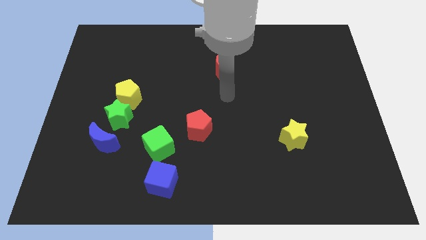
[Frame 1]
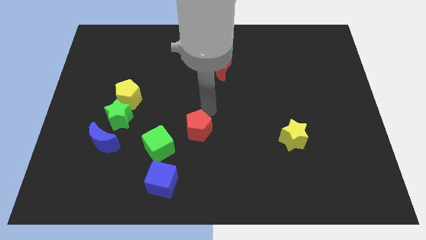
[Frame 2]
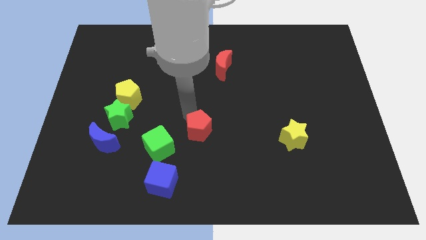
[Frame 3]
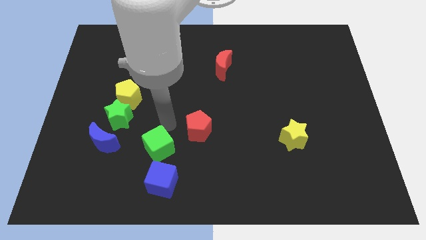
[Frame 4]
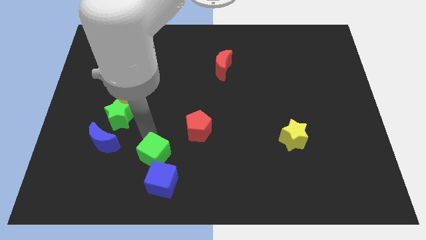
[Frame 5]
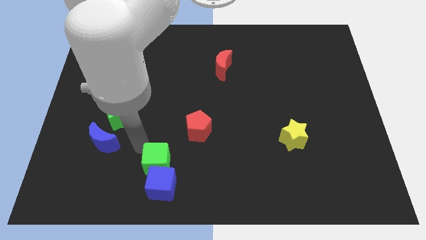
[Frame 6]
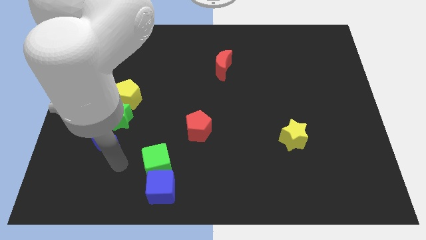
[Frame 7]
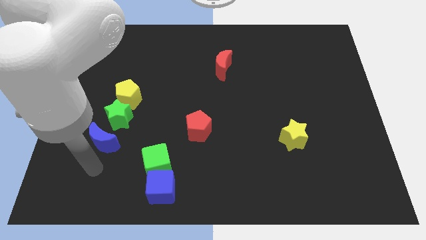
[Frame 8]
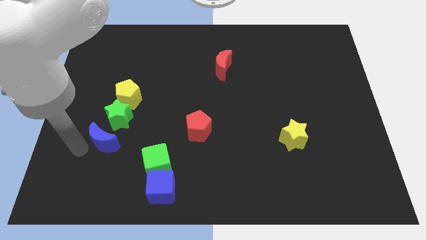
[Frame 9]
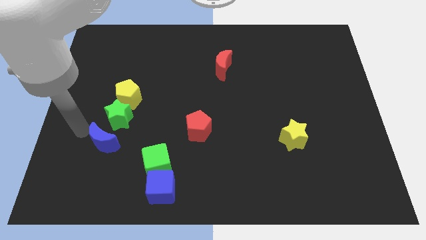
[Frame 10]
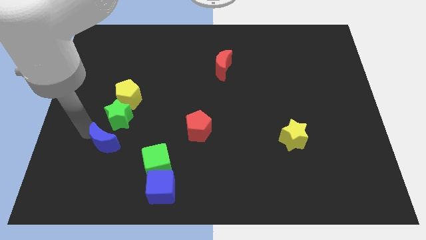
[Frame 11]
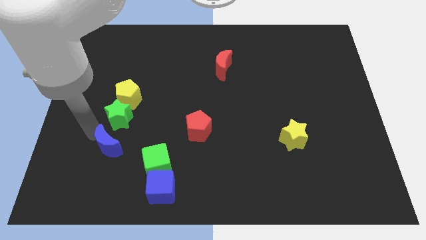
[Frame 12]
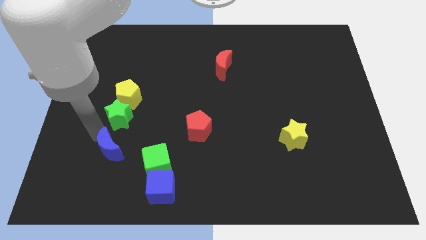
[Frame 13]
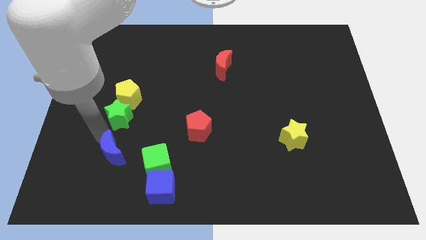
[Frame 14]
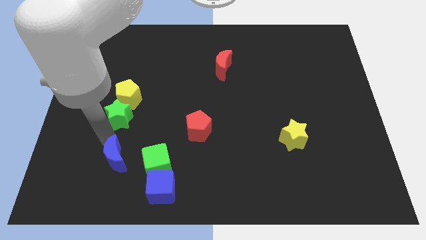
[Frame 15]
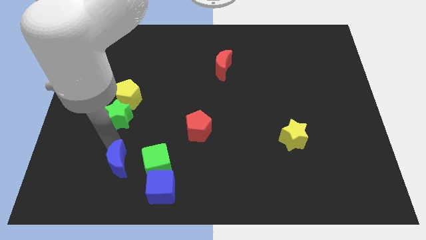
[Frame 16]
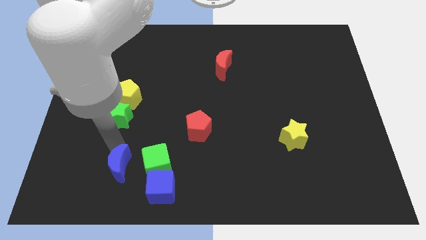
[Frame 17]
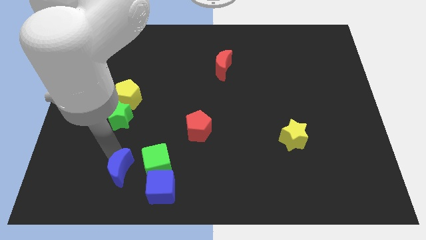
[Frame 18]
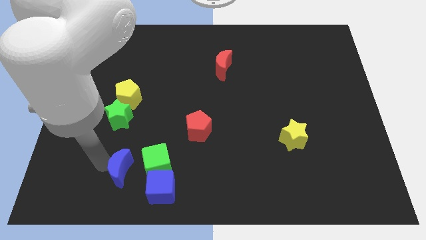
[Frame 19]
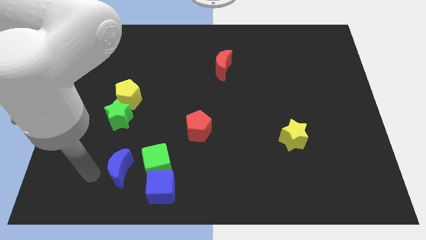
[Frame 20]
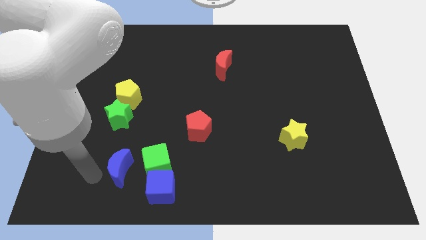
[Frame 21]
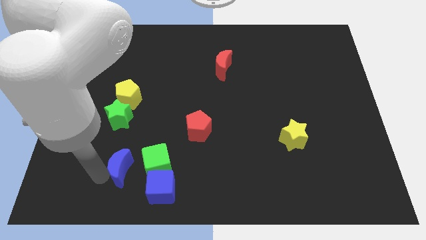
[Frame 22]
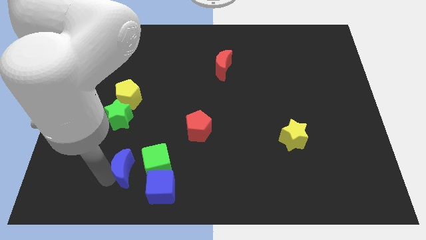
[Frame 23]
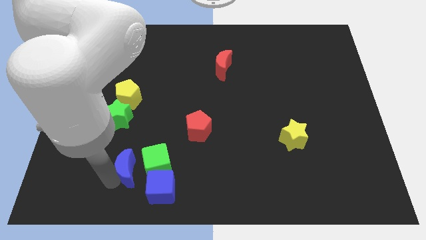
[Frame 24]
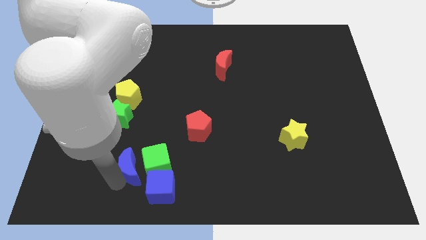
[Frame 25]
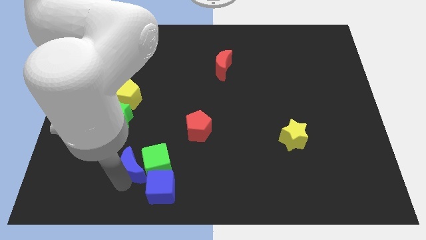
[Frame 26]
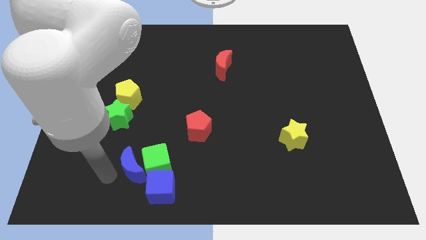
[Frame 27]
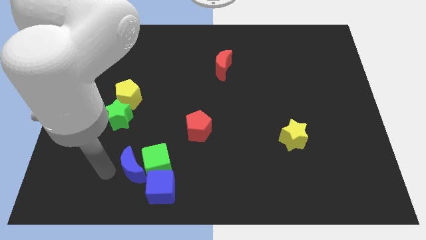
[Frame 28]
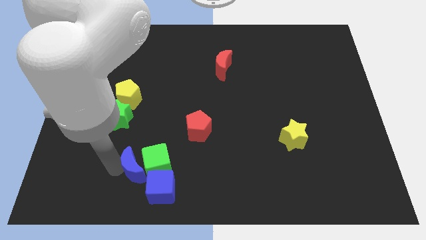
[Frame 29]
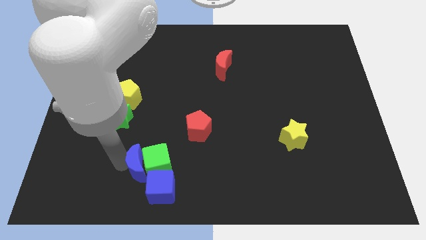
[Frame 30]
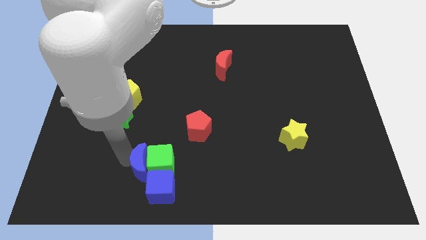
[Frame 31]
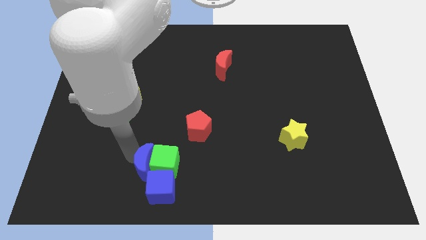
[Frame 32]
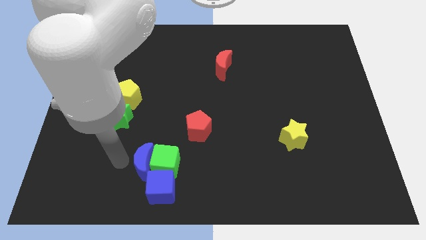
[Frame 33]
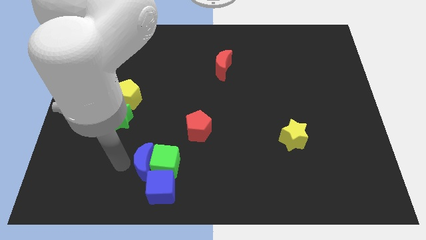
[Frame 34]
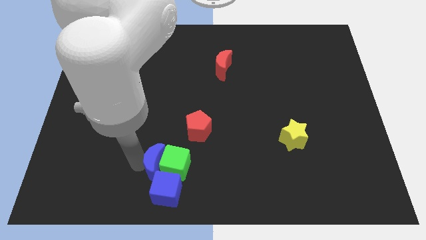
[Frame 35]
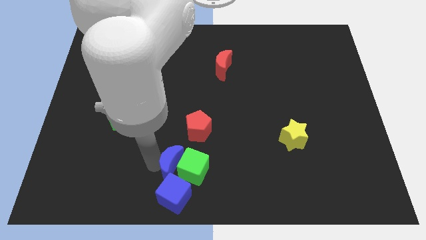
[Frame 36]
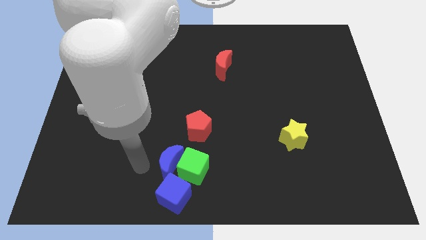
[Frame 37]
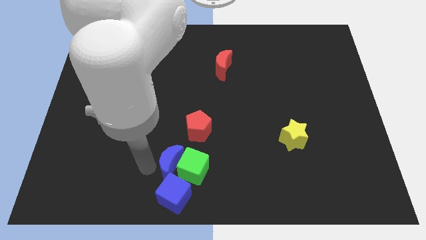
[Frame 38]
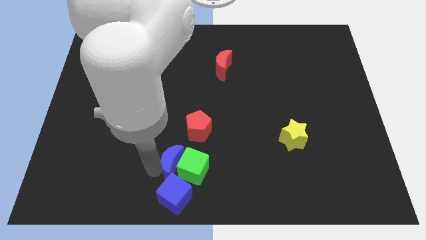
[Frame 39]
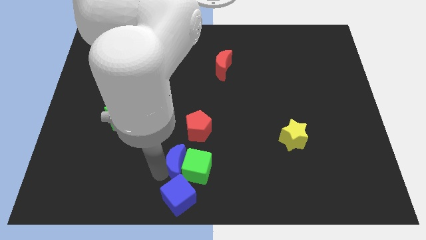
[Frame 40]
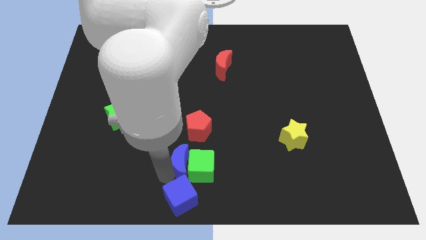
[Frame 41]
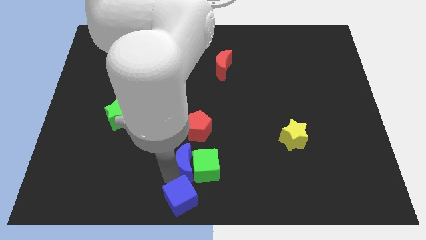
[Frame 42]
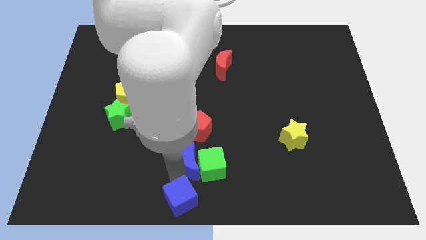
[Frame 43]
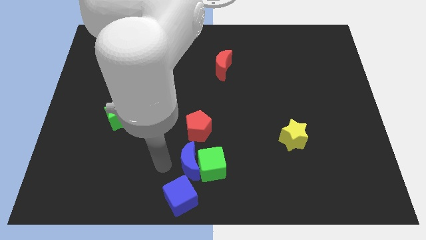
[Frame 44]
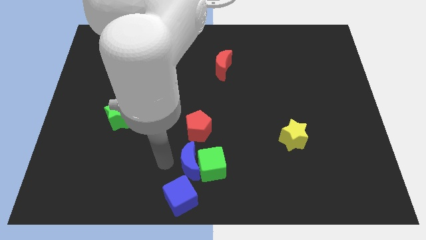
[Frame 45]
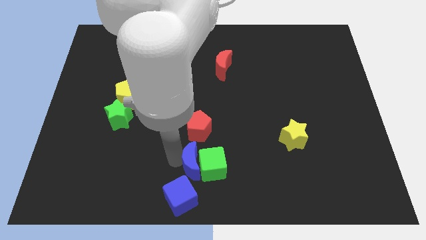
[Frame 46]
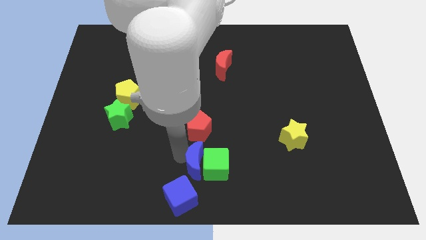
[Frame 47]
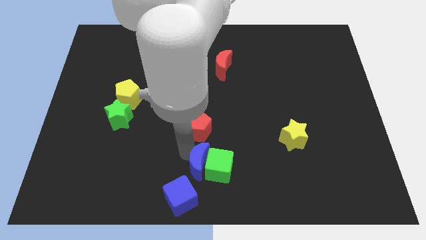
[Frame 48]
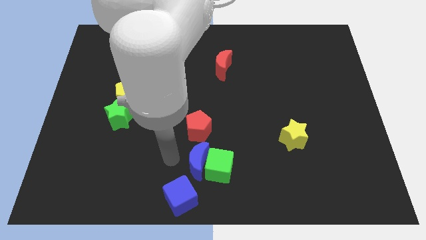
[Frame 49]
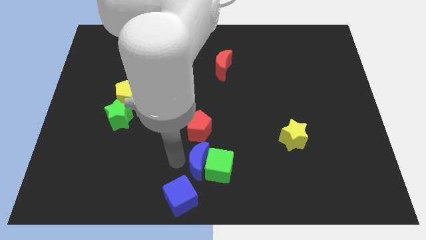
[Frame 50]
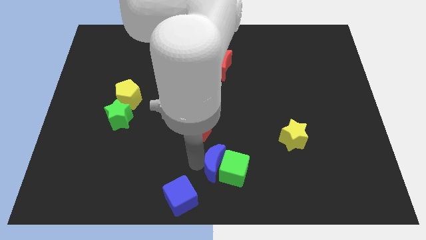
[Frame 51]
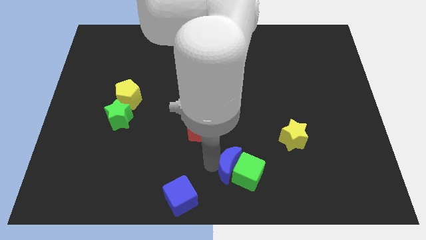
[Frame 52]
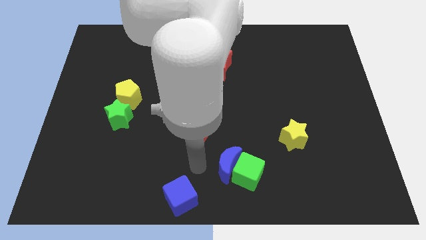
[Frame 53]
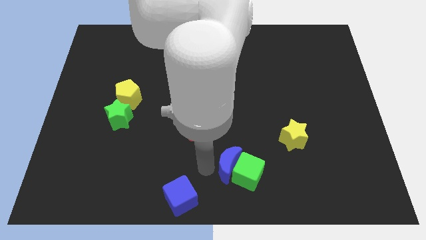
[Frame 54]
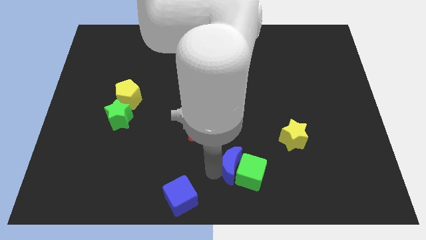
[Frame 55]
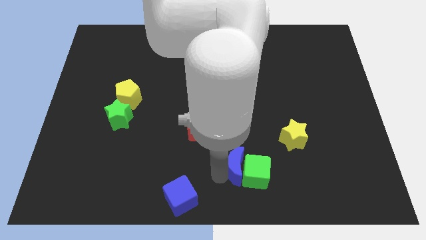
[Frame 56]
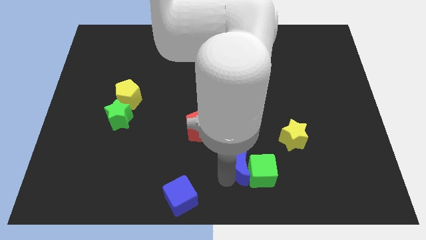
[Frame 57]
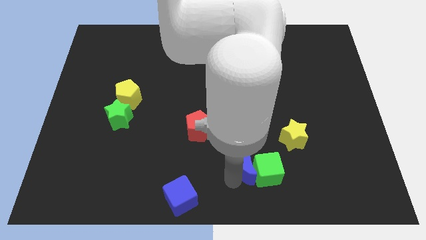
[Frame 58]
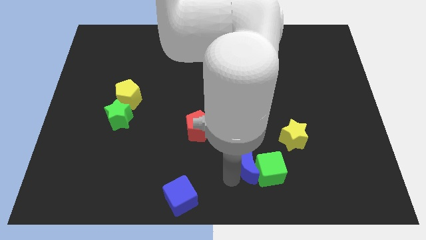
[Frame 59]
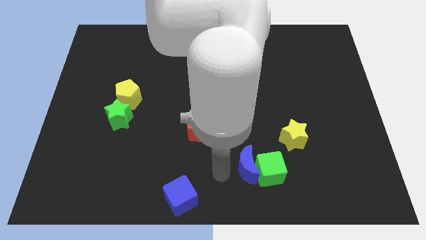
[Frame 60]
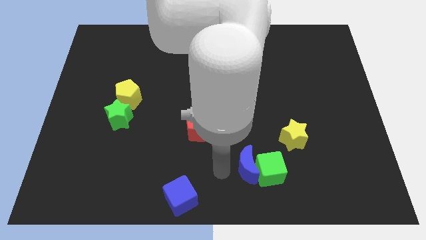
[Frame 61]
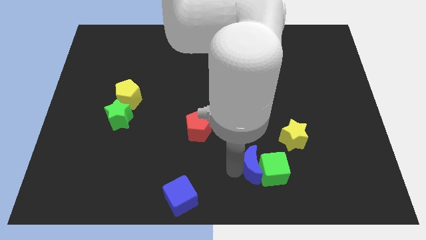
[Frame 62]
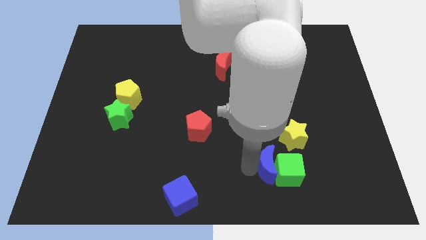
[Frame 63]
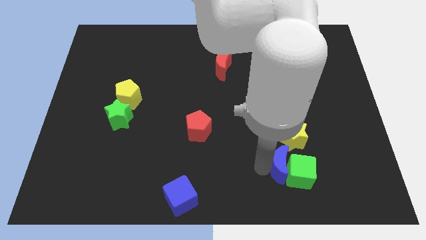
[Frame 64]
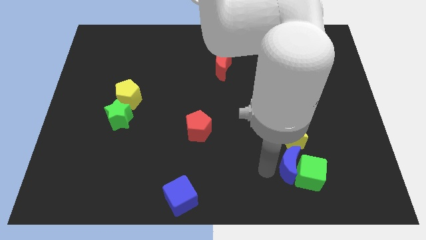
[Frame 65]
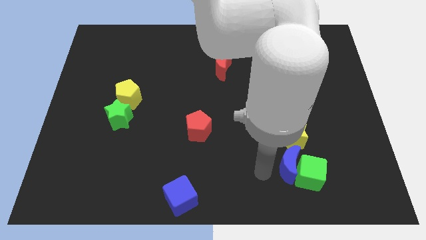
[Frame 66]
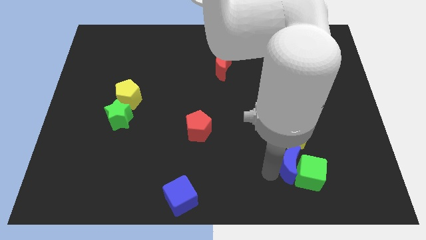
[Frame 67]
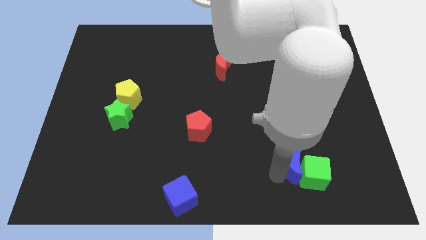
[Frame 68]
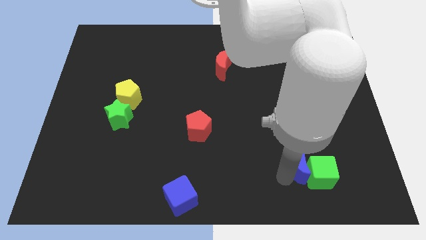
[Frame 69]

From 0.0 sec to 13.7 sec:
push the blue moon to the bottom right of the yellow star

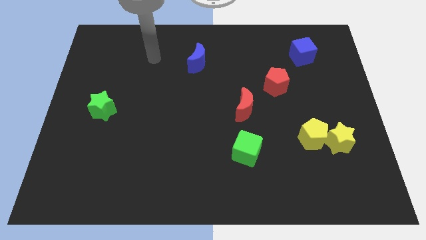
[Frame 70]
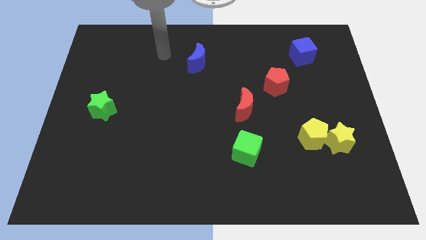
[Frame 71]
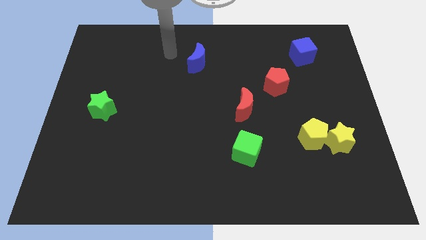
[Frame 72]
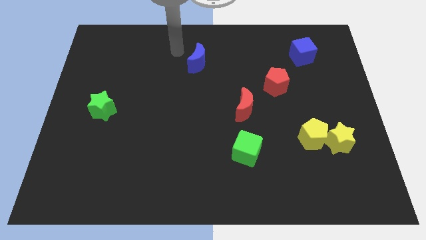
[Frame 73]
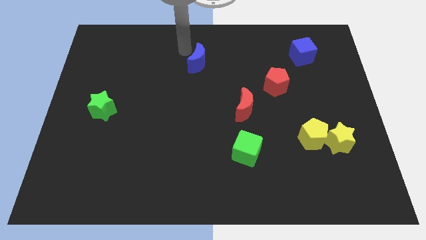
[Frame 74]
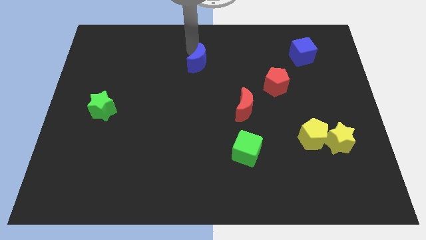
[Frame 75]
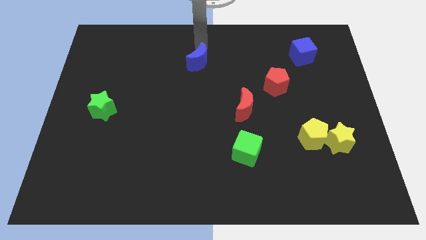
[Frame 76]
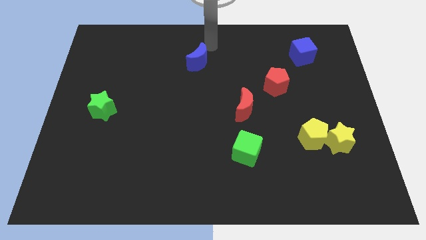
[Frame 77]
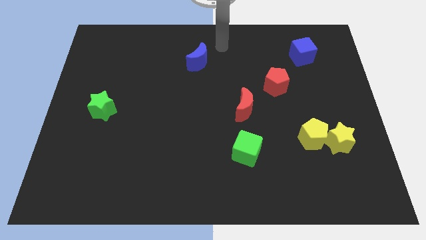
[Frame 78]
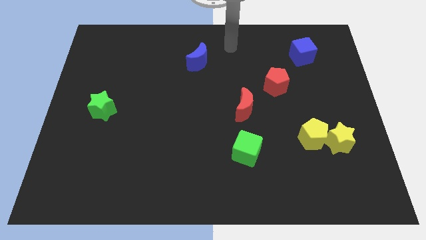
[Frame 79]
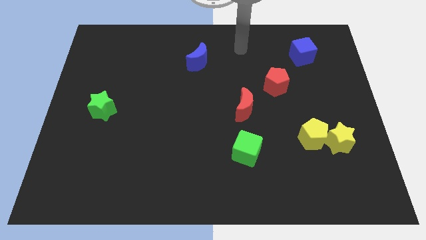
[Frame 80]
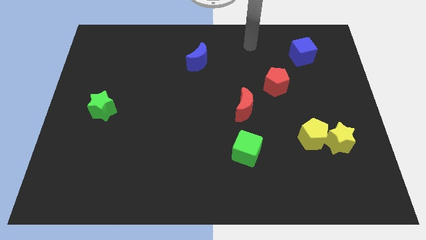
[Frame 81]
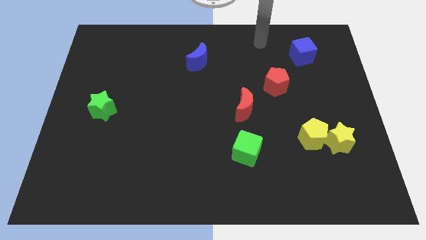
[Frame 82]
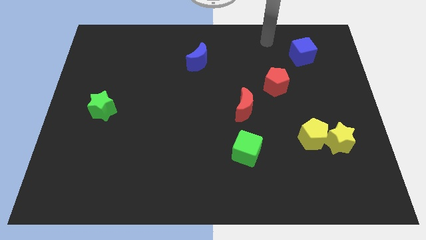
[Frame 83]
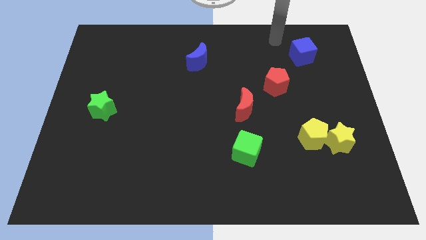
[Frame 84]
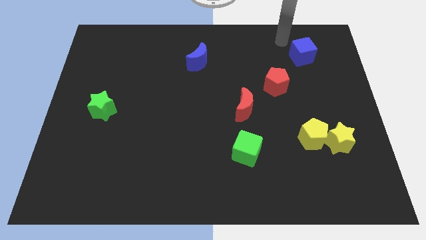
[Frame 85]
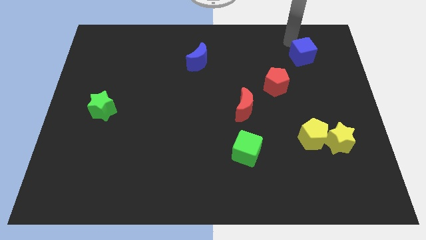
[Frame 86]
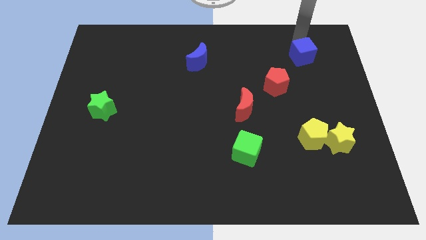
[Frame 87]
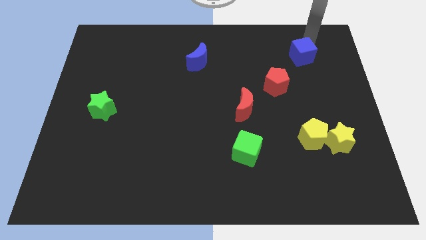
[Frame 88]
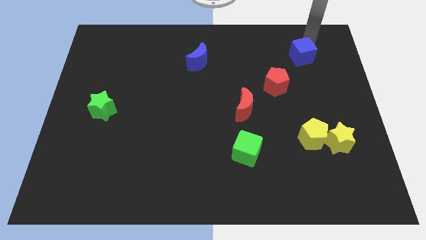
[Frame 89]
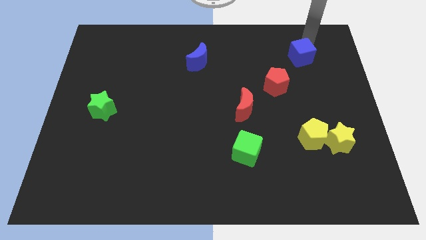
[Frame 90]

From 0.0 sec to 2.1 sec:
push the blue cube to the top right side of the red pentagon
